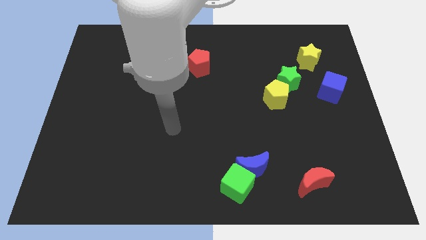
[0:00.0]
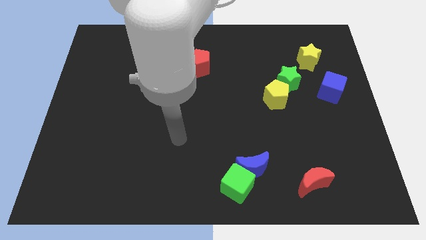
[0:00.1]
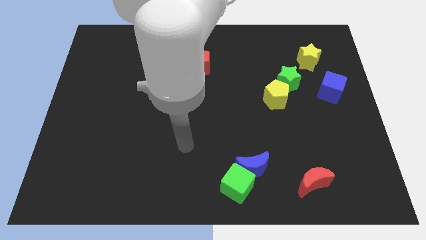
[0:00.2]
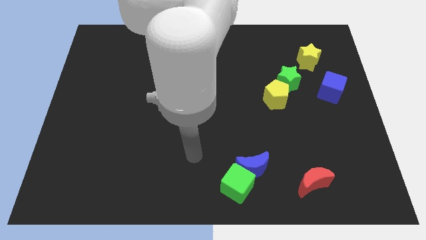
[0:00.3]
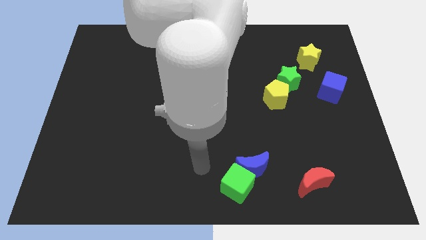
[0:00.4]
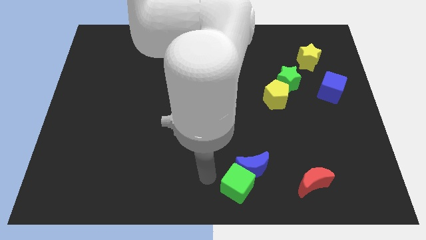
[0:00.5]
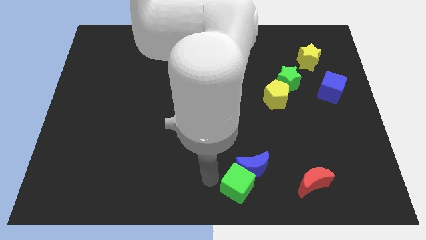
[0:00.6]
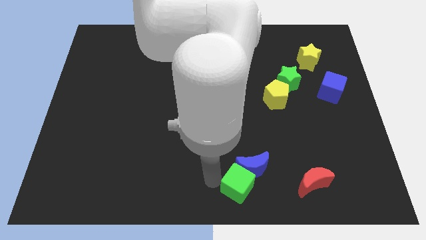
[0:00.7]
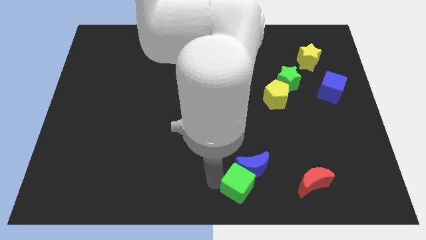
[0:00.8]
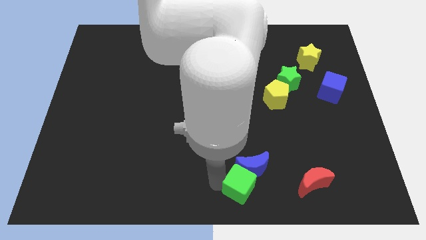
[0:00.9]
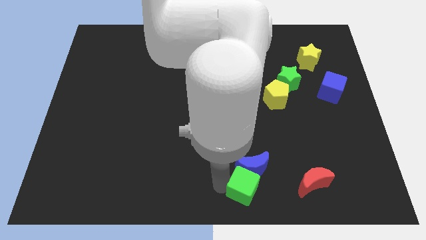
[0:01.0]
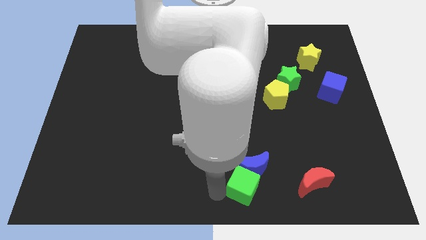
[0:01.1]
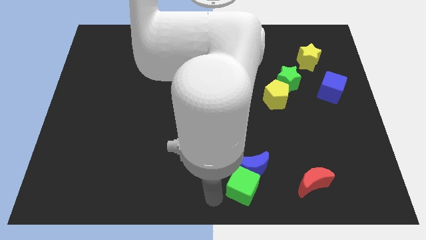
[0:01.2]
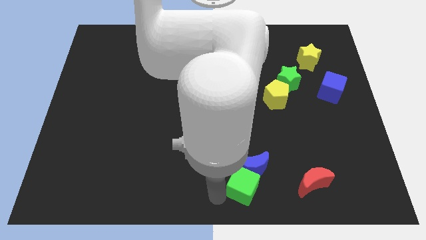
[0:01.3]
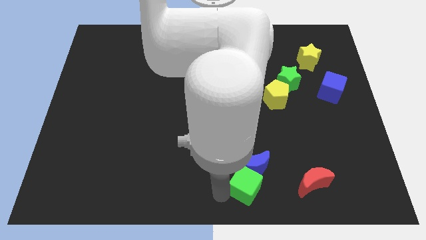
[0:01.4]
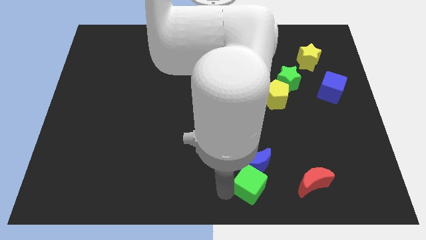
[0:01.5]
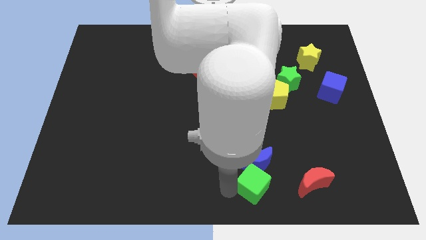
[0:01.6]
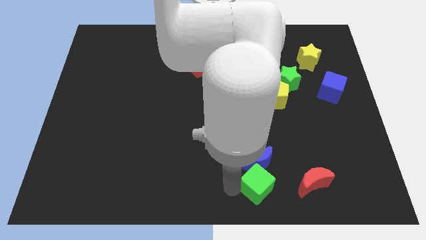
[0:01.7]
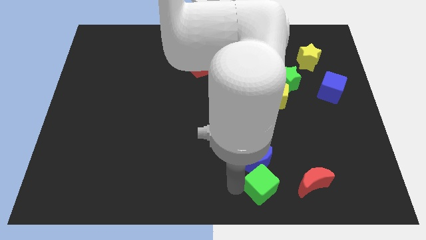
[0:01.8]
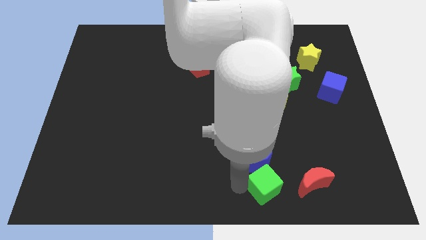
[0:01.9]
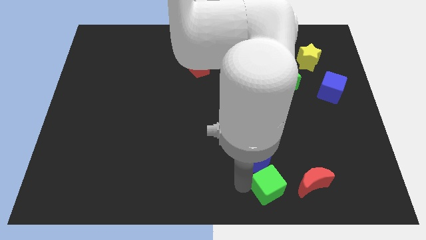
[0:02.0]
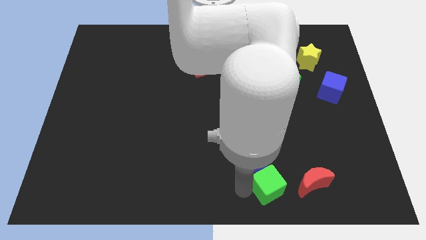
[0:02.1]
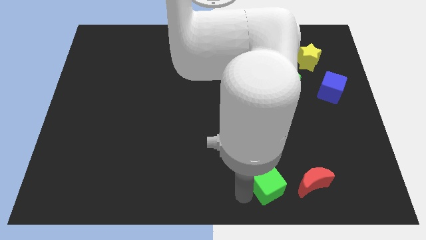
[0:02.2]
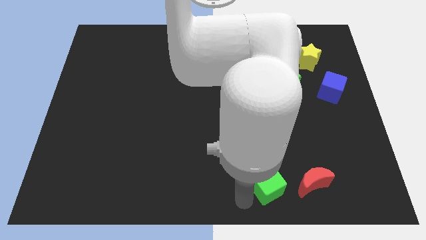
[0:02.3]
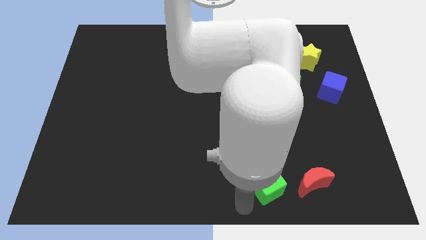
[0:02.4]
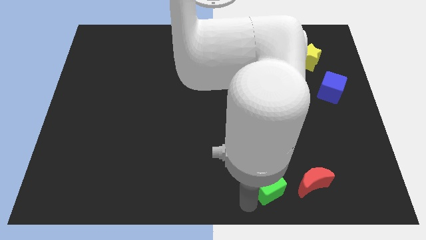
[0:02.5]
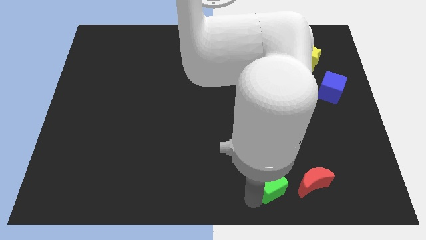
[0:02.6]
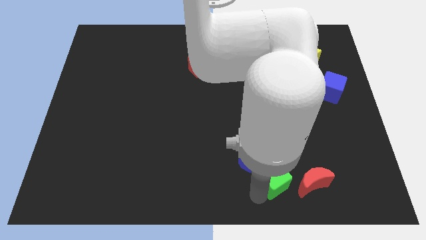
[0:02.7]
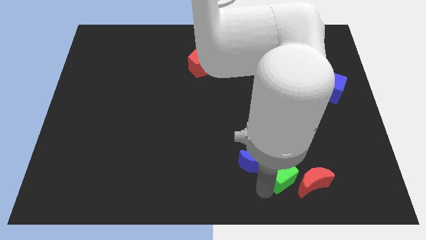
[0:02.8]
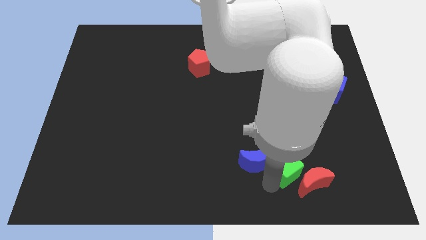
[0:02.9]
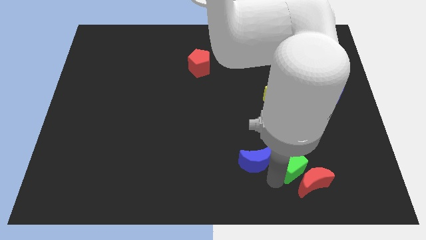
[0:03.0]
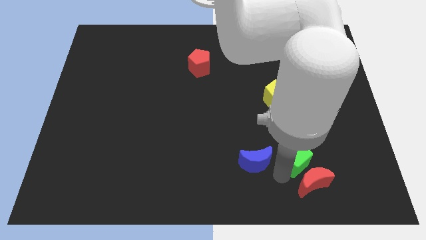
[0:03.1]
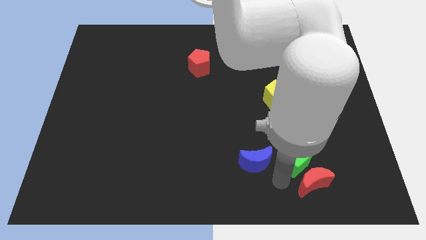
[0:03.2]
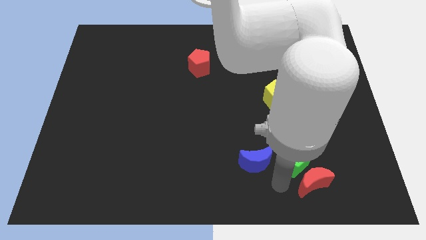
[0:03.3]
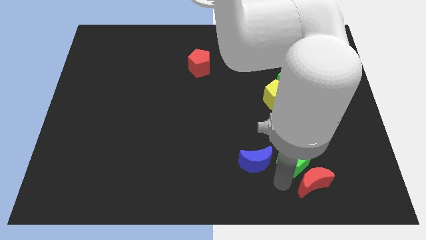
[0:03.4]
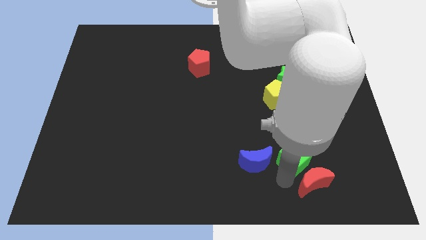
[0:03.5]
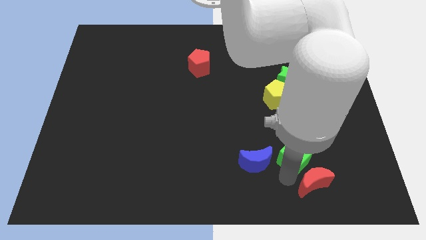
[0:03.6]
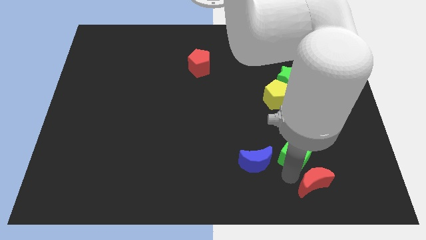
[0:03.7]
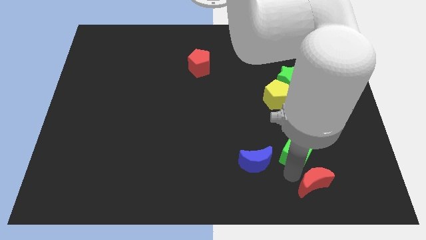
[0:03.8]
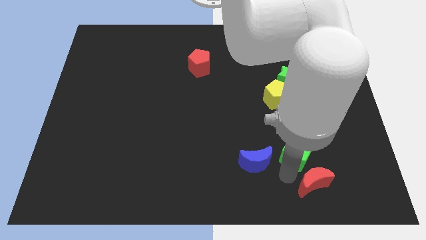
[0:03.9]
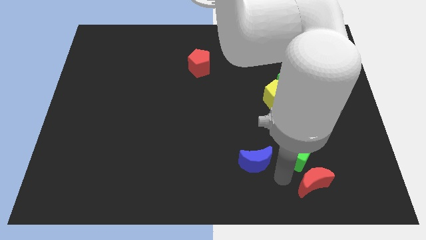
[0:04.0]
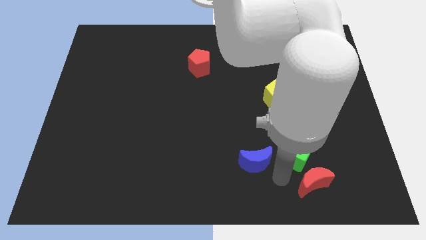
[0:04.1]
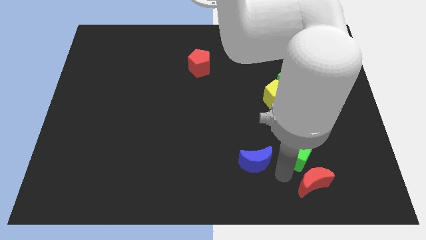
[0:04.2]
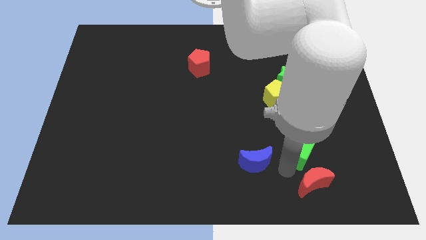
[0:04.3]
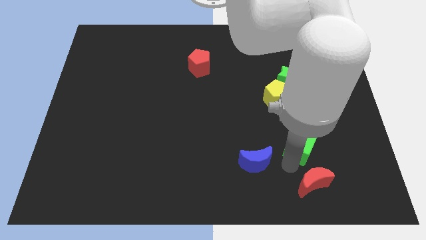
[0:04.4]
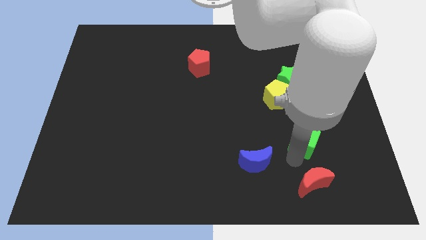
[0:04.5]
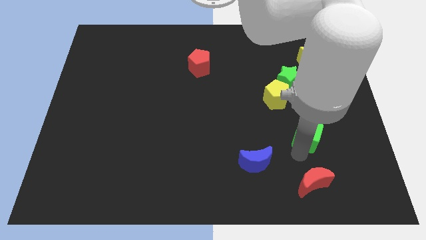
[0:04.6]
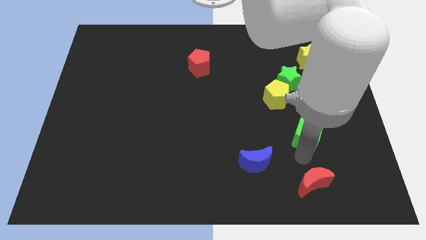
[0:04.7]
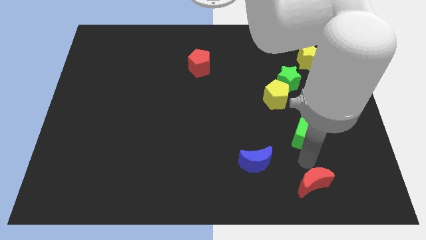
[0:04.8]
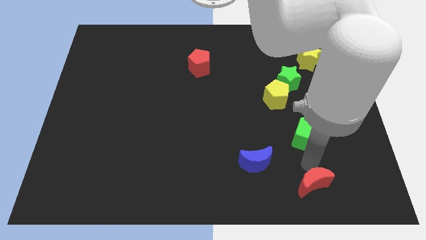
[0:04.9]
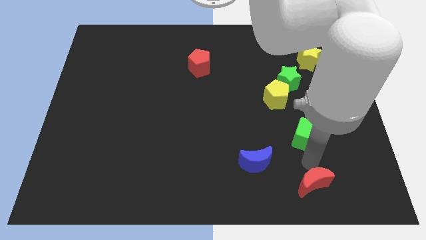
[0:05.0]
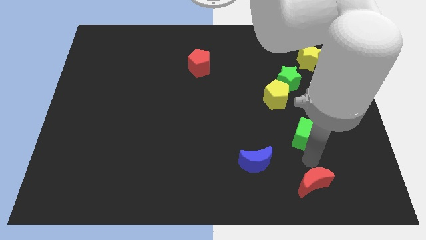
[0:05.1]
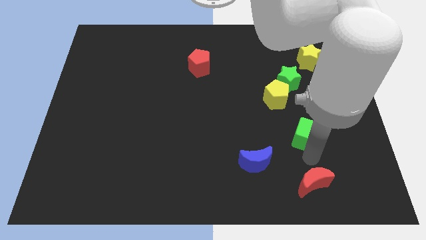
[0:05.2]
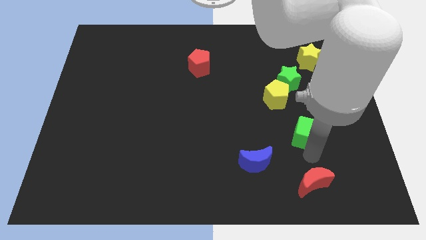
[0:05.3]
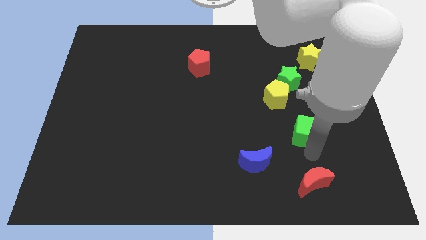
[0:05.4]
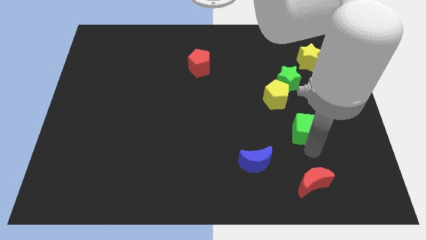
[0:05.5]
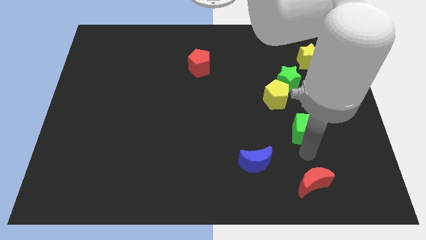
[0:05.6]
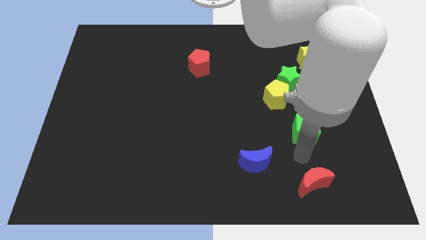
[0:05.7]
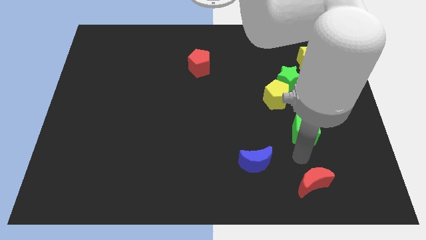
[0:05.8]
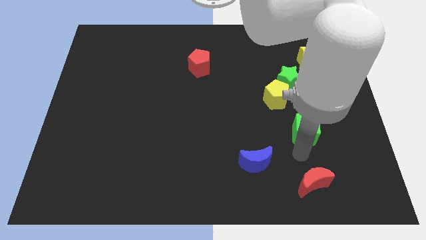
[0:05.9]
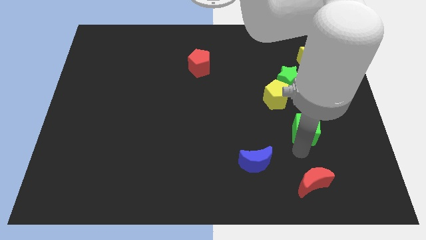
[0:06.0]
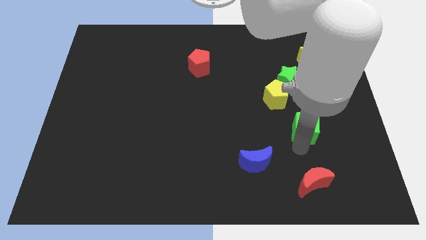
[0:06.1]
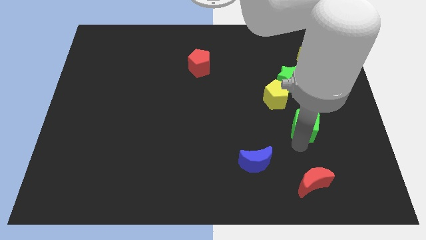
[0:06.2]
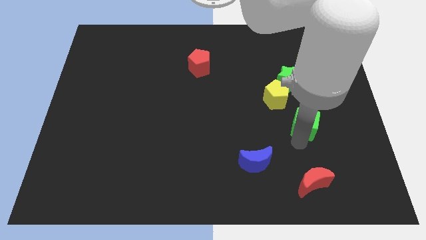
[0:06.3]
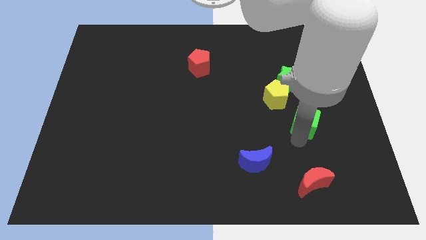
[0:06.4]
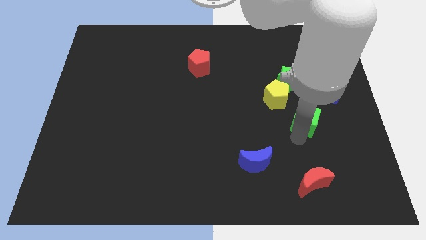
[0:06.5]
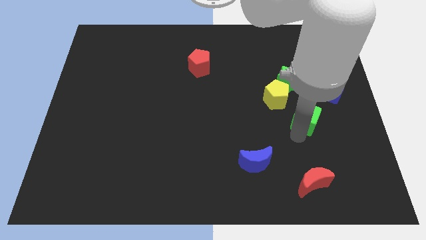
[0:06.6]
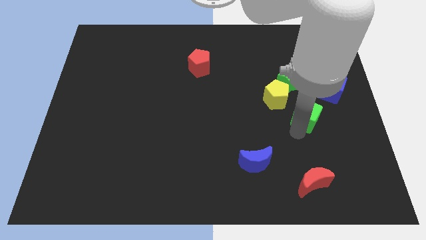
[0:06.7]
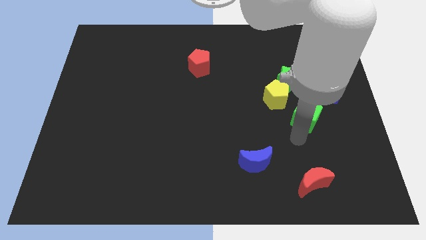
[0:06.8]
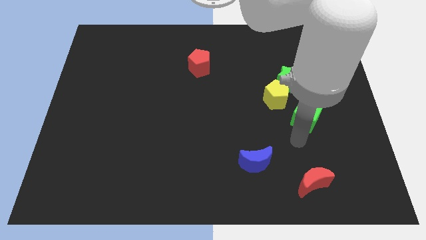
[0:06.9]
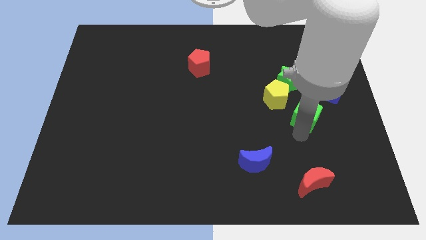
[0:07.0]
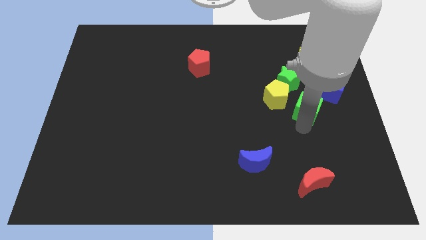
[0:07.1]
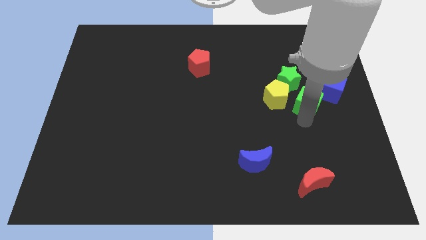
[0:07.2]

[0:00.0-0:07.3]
push the green cube to the bottom side of the yellow star
